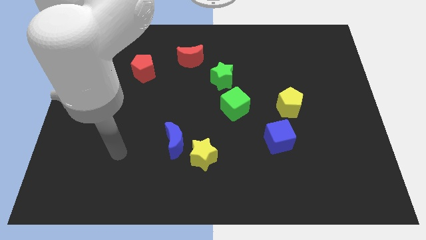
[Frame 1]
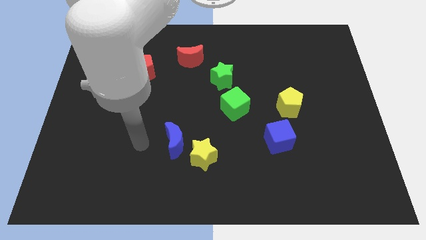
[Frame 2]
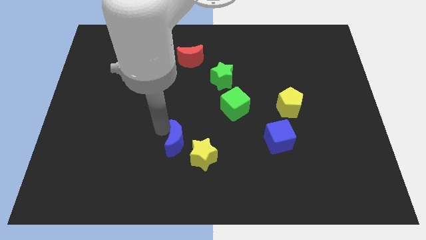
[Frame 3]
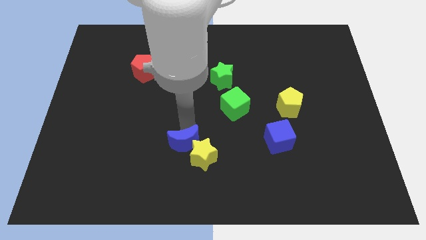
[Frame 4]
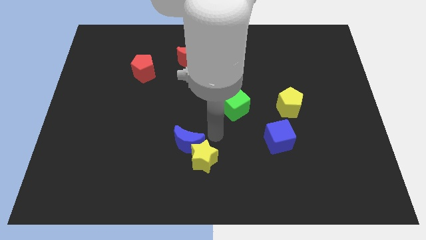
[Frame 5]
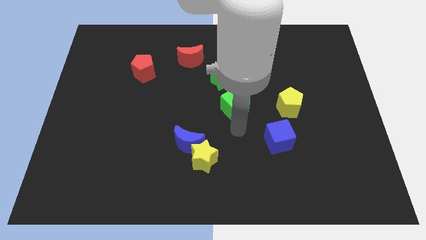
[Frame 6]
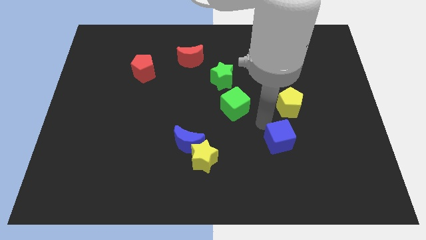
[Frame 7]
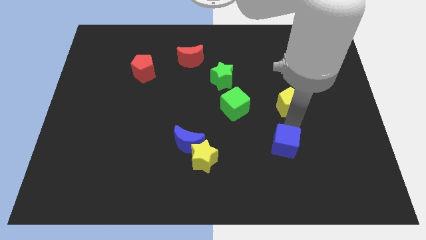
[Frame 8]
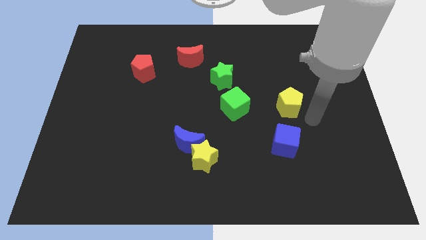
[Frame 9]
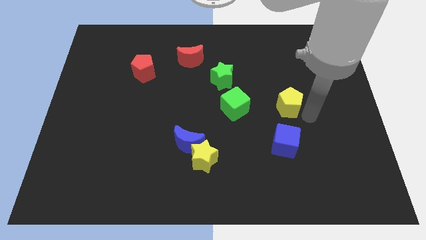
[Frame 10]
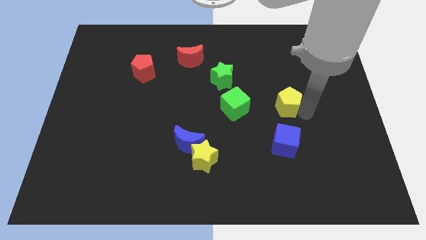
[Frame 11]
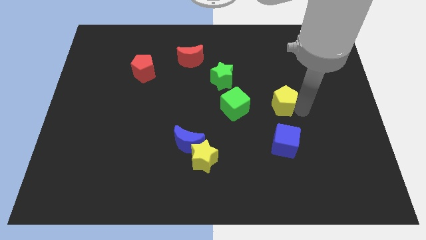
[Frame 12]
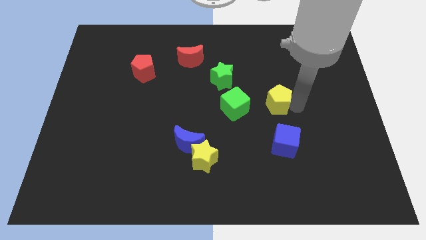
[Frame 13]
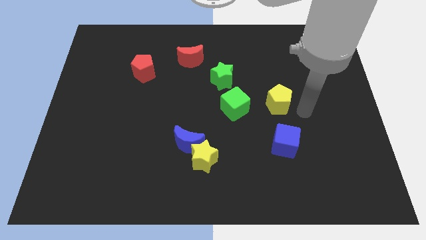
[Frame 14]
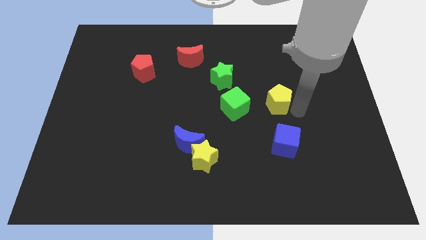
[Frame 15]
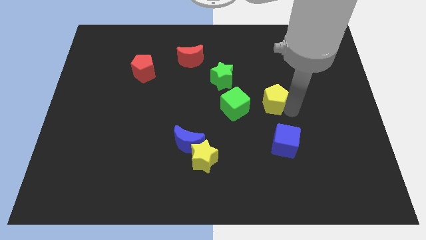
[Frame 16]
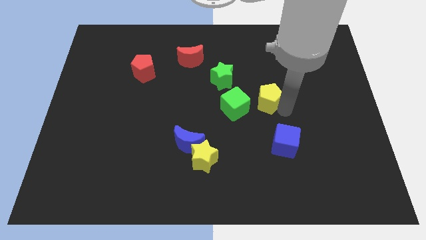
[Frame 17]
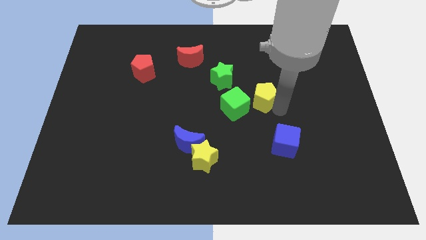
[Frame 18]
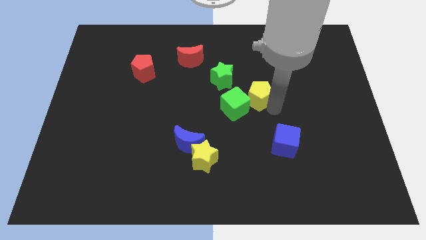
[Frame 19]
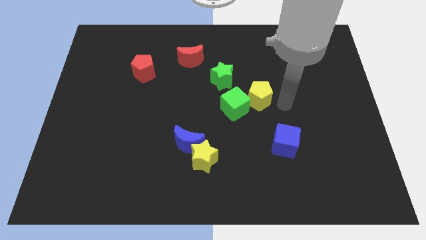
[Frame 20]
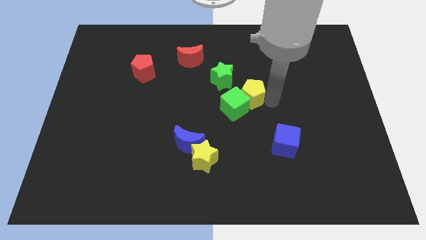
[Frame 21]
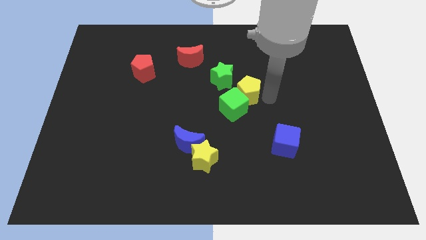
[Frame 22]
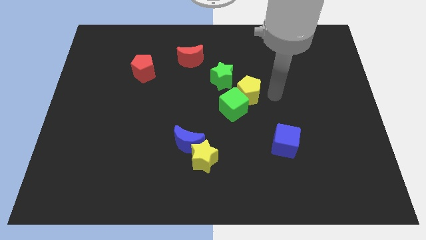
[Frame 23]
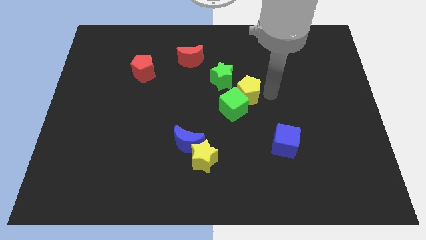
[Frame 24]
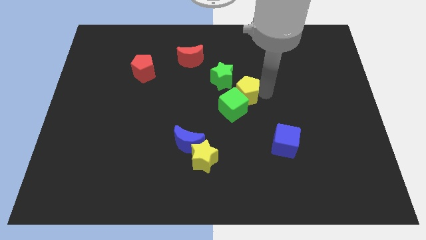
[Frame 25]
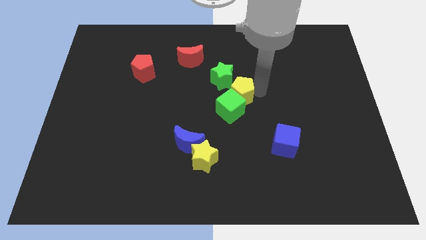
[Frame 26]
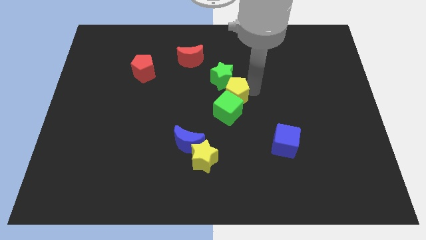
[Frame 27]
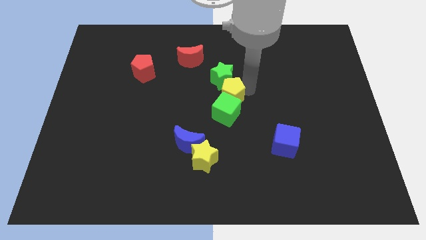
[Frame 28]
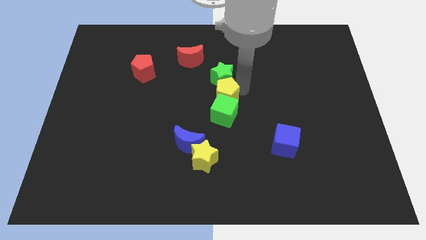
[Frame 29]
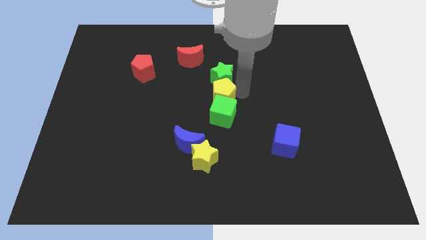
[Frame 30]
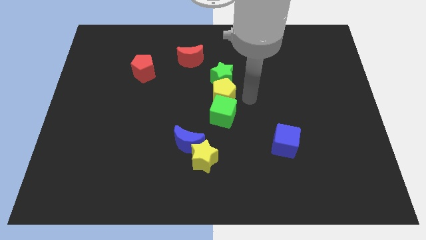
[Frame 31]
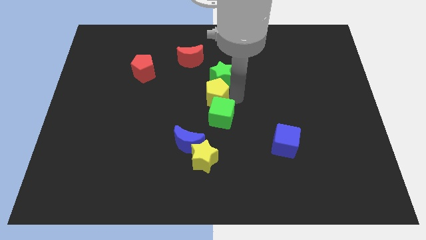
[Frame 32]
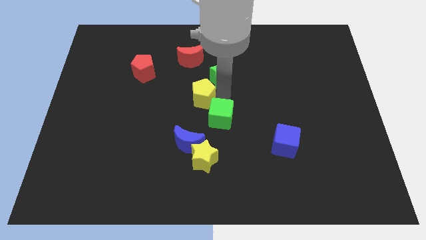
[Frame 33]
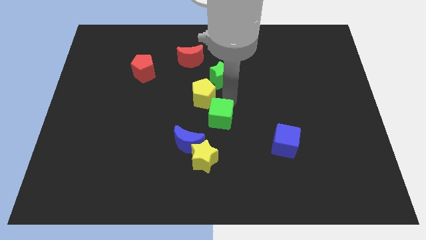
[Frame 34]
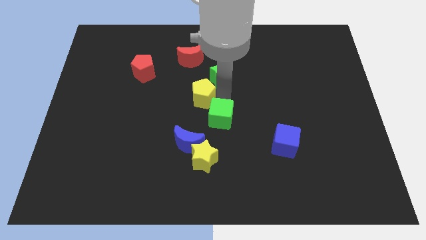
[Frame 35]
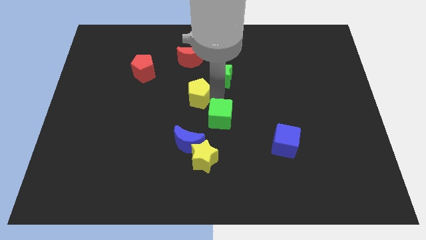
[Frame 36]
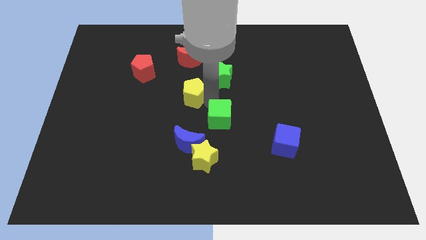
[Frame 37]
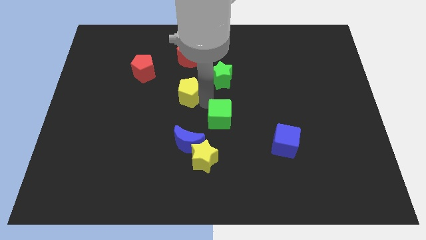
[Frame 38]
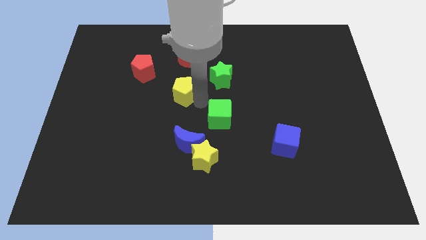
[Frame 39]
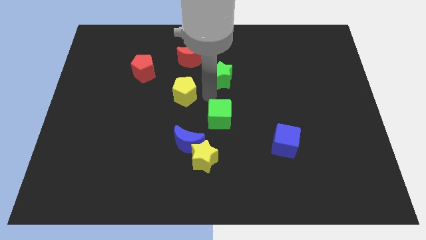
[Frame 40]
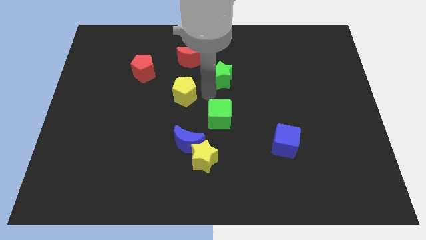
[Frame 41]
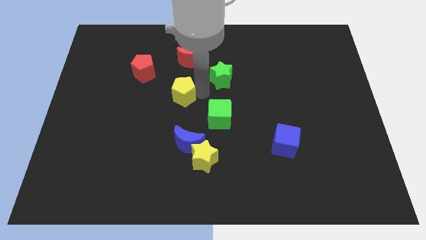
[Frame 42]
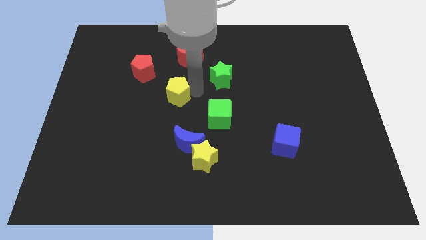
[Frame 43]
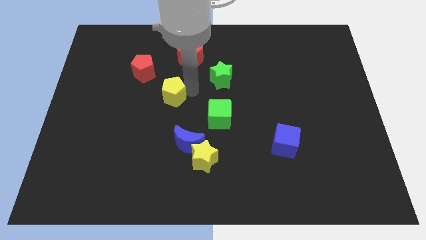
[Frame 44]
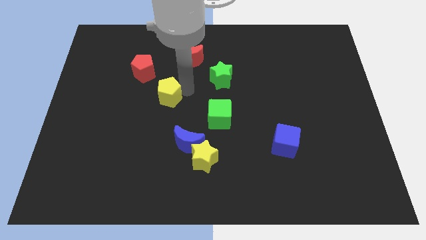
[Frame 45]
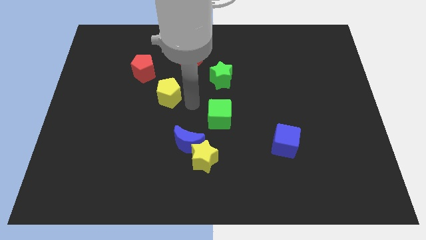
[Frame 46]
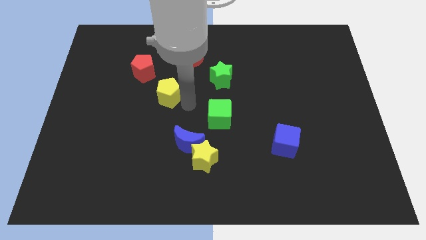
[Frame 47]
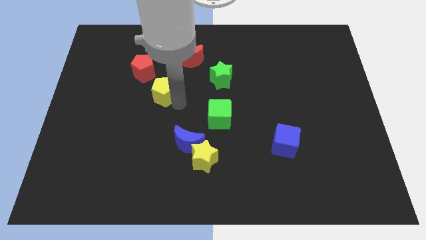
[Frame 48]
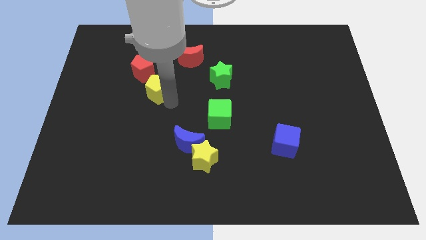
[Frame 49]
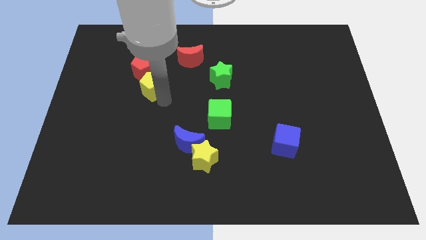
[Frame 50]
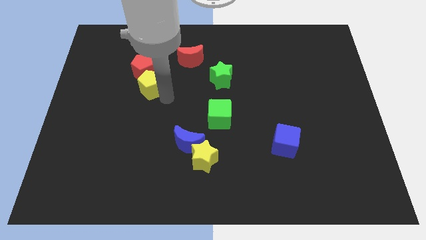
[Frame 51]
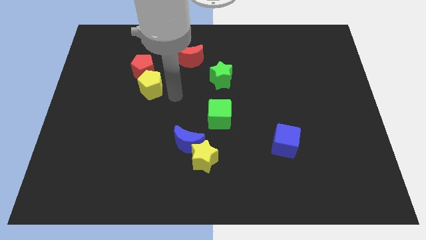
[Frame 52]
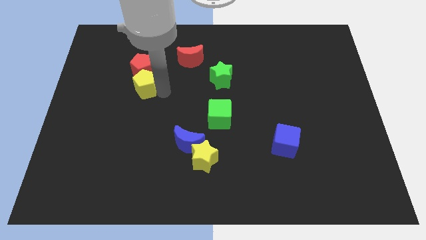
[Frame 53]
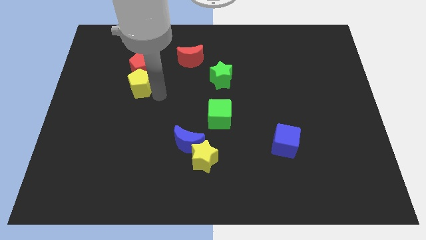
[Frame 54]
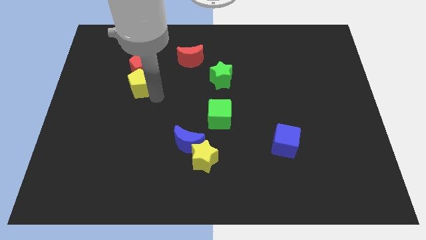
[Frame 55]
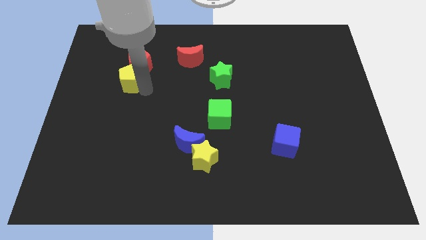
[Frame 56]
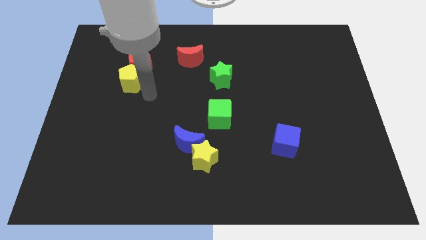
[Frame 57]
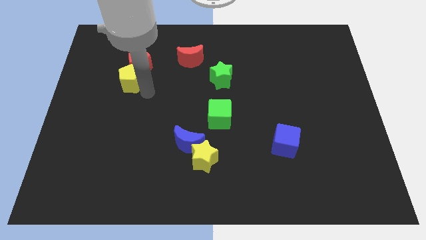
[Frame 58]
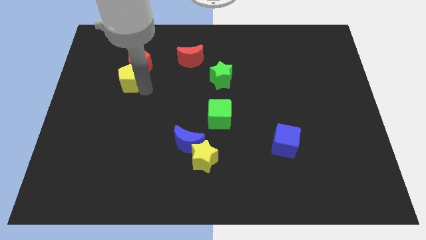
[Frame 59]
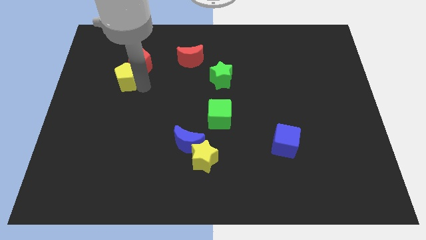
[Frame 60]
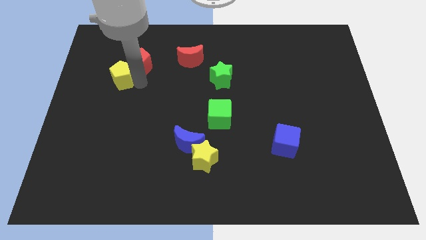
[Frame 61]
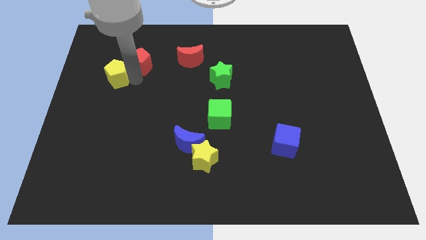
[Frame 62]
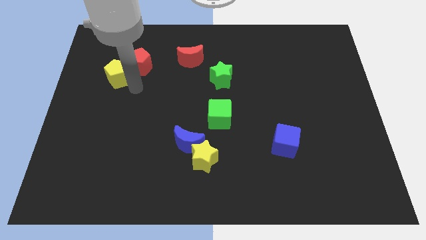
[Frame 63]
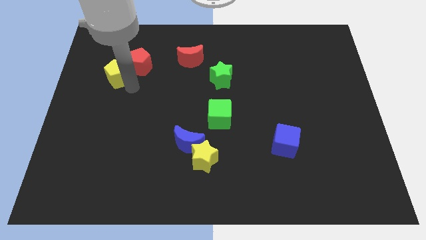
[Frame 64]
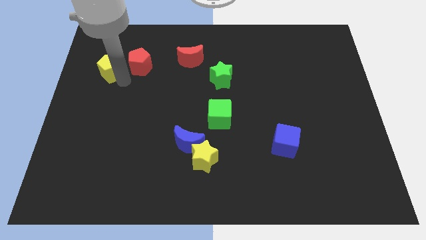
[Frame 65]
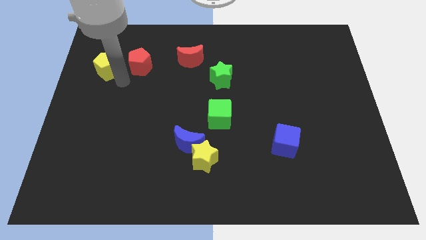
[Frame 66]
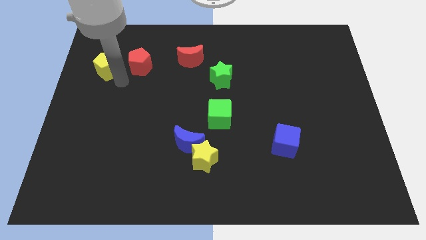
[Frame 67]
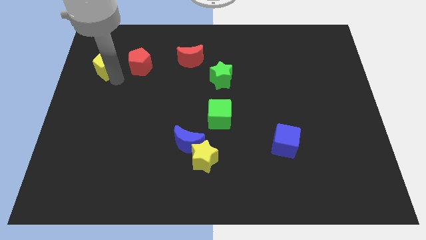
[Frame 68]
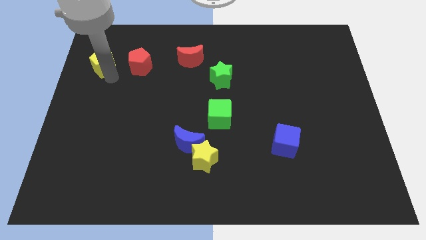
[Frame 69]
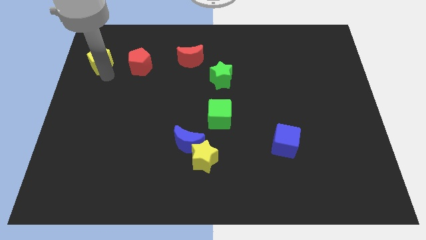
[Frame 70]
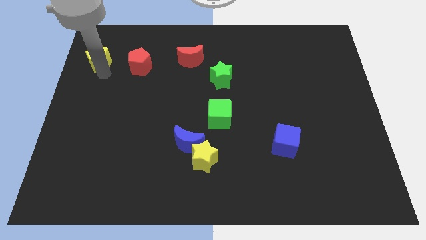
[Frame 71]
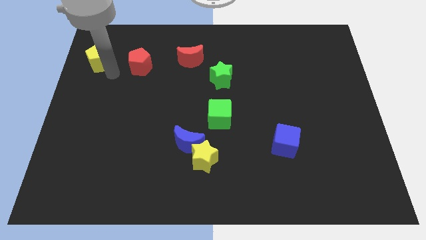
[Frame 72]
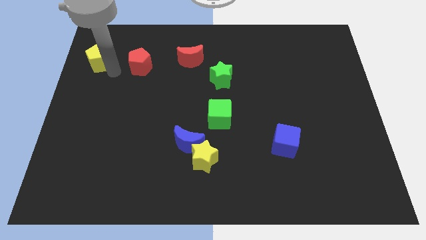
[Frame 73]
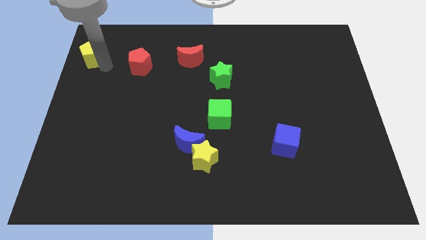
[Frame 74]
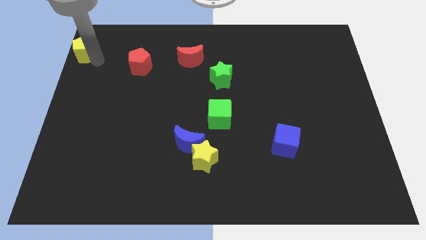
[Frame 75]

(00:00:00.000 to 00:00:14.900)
move the yellow pentagon to the top left
